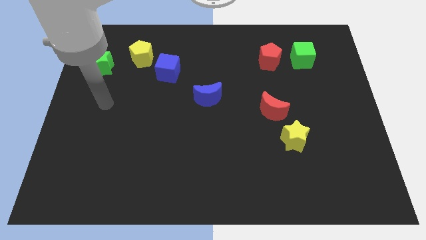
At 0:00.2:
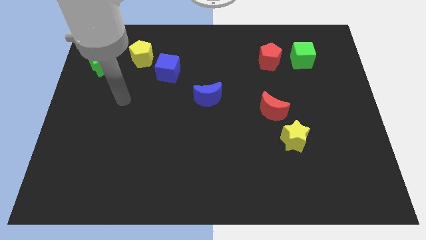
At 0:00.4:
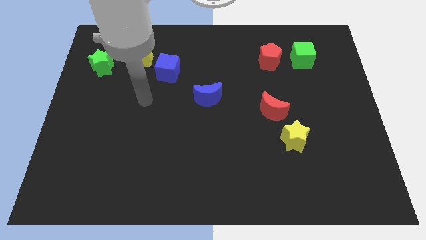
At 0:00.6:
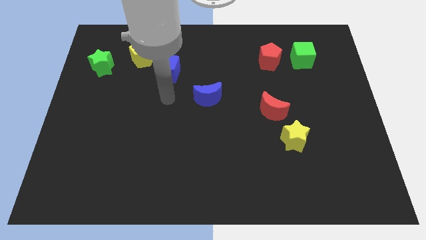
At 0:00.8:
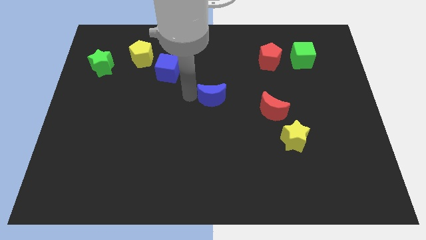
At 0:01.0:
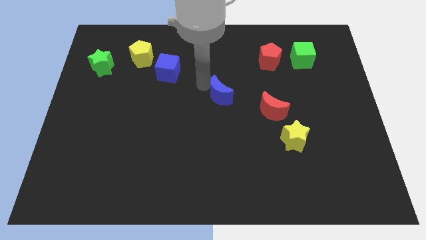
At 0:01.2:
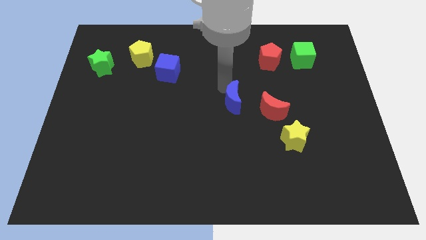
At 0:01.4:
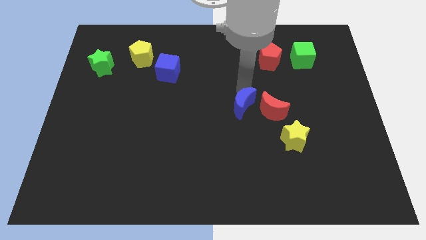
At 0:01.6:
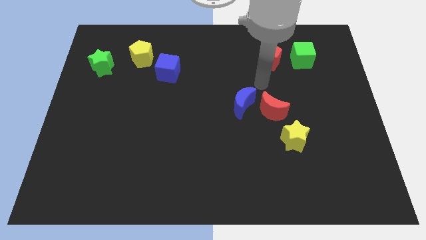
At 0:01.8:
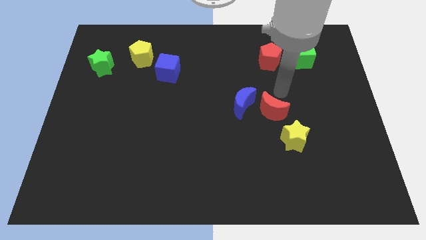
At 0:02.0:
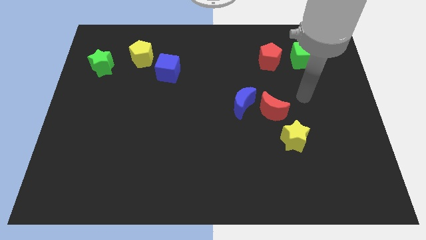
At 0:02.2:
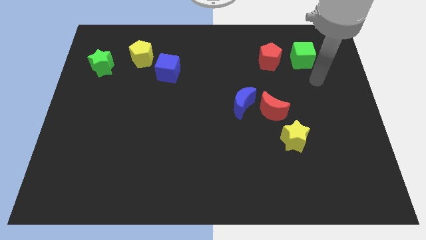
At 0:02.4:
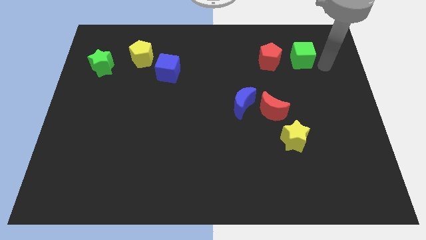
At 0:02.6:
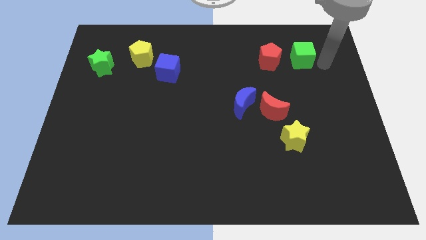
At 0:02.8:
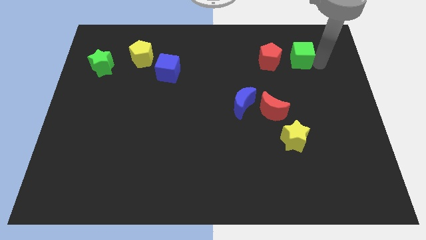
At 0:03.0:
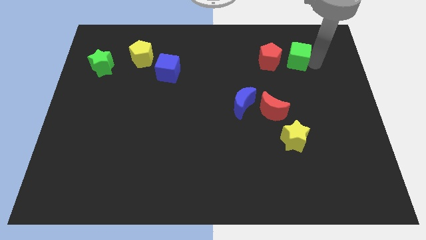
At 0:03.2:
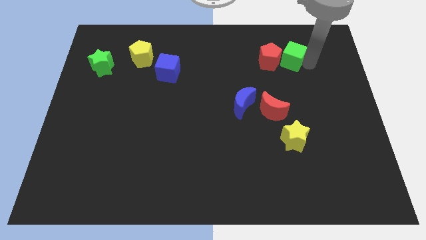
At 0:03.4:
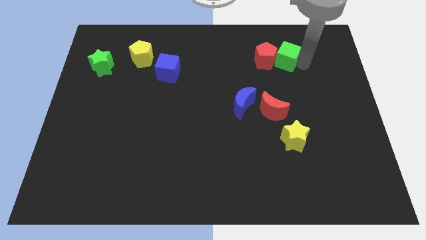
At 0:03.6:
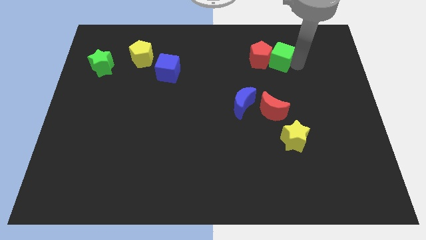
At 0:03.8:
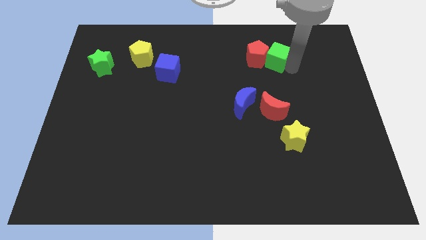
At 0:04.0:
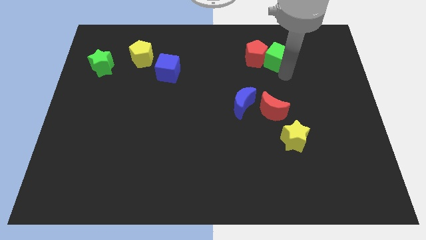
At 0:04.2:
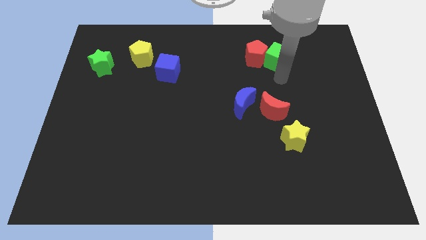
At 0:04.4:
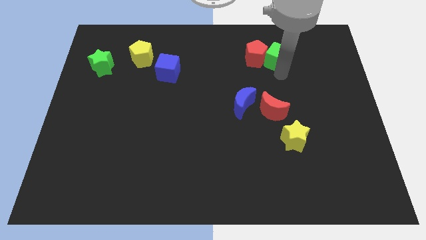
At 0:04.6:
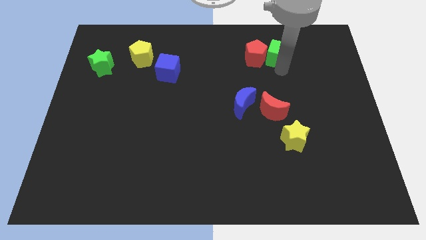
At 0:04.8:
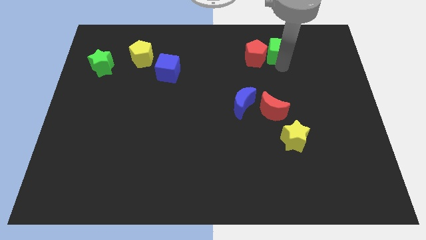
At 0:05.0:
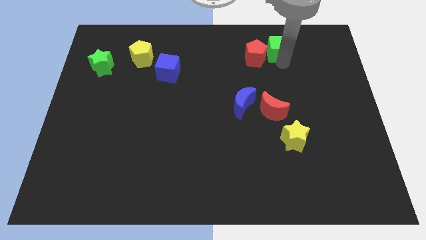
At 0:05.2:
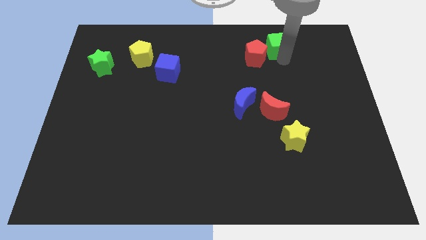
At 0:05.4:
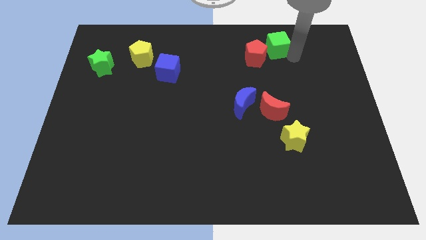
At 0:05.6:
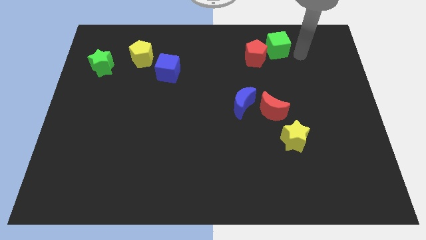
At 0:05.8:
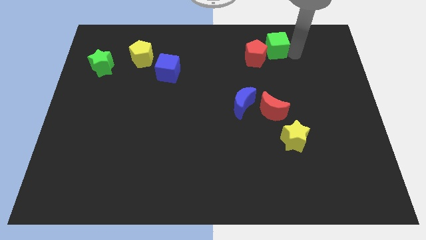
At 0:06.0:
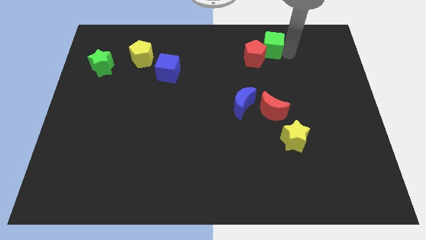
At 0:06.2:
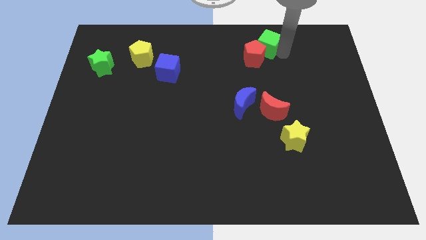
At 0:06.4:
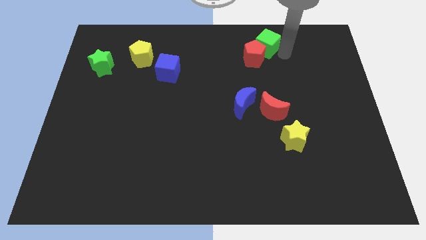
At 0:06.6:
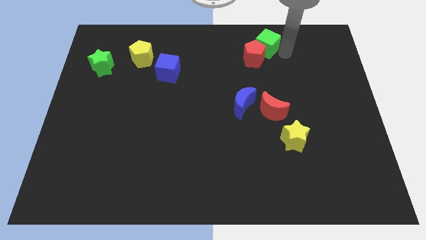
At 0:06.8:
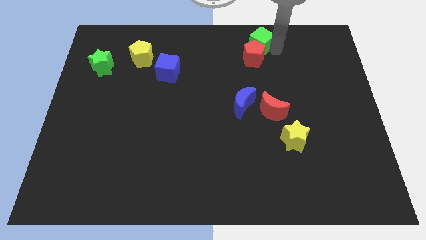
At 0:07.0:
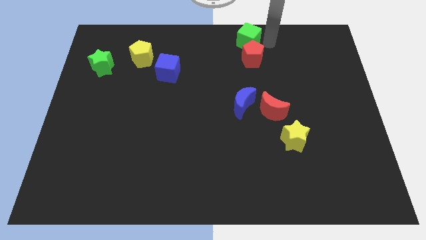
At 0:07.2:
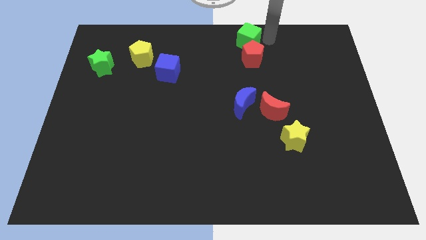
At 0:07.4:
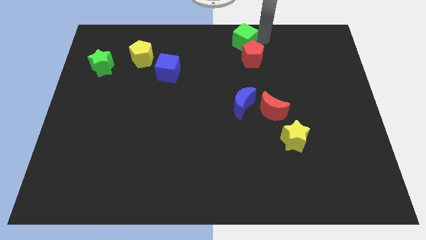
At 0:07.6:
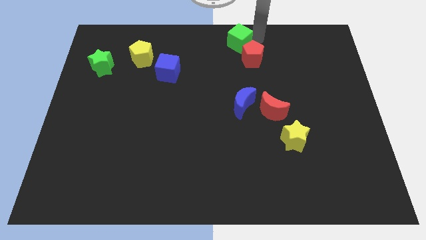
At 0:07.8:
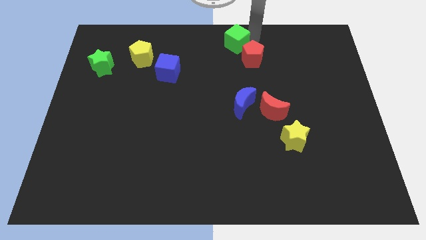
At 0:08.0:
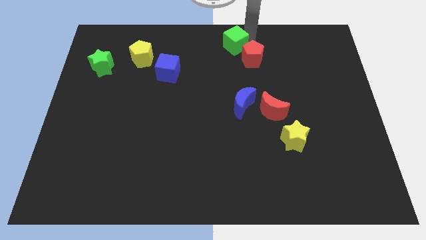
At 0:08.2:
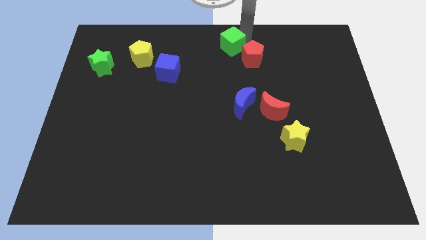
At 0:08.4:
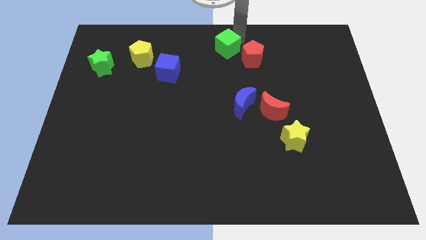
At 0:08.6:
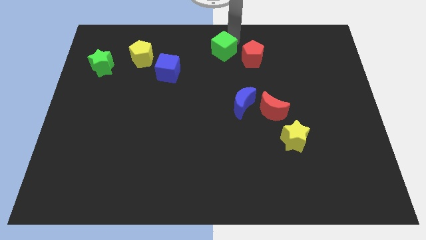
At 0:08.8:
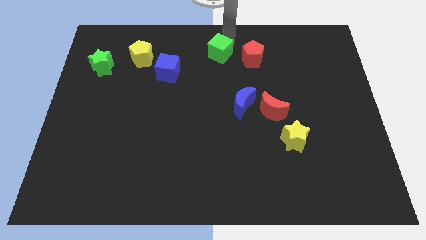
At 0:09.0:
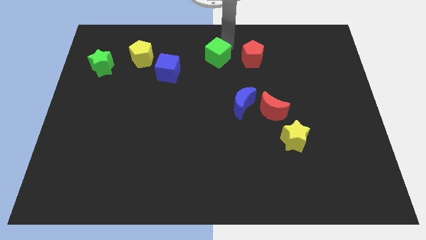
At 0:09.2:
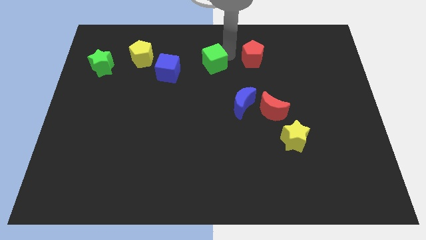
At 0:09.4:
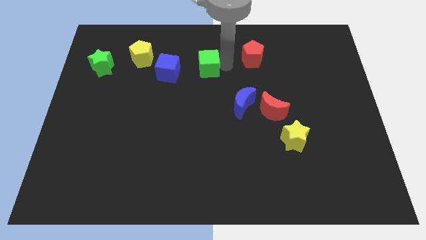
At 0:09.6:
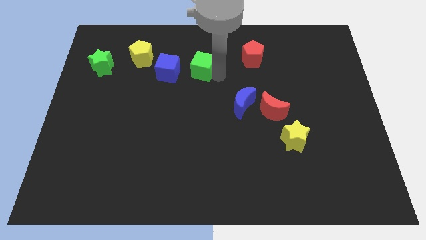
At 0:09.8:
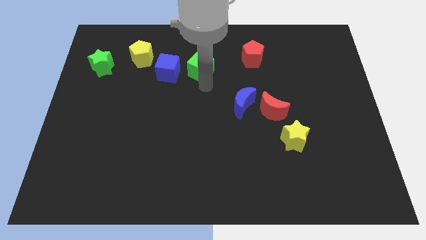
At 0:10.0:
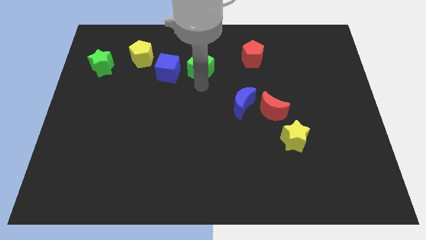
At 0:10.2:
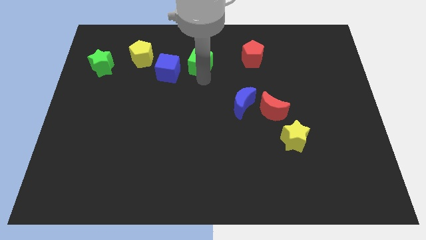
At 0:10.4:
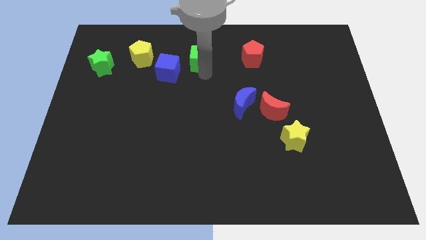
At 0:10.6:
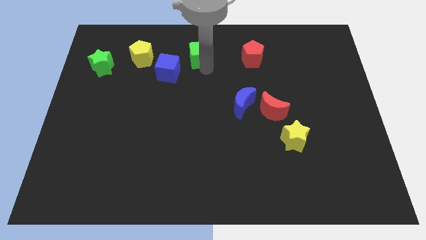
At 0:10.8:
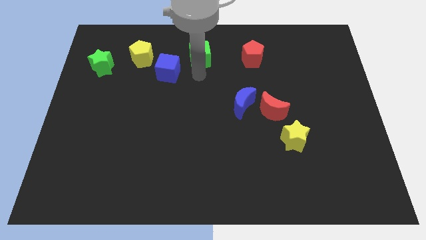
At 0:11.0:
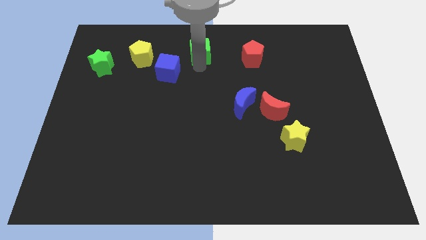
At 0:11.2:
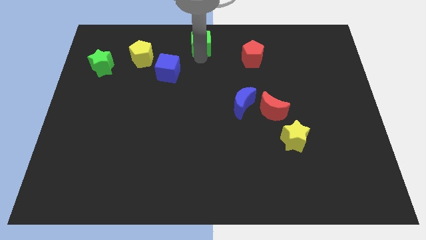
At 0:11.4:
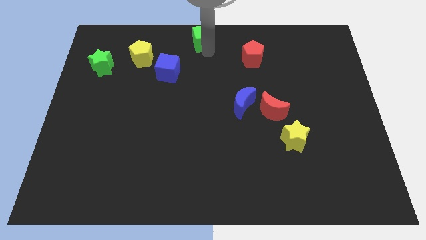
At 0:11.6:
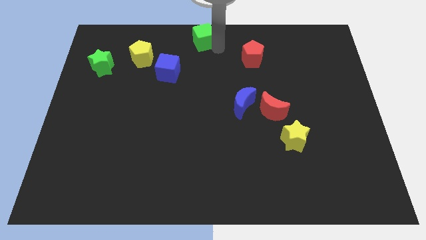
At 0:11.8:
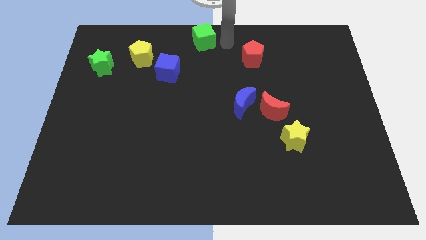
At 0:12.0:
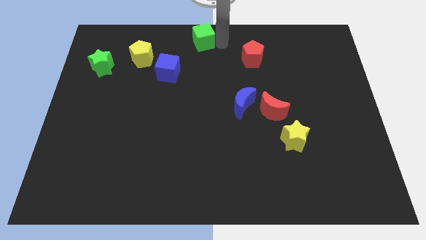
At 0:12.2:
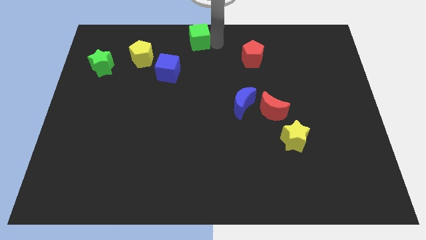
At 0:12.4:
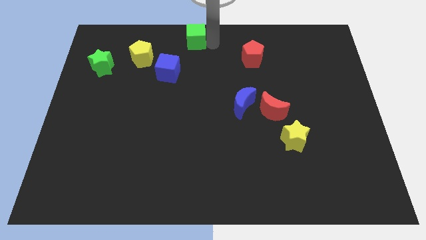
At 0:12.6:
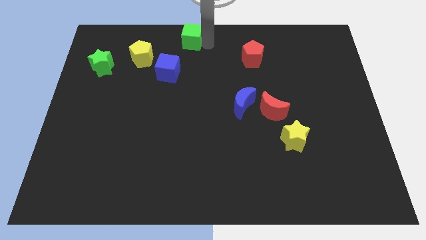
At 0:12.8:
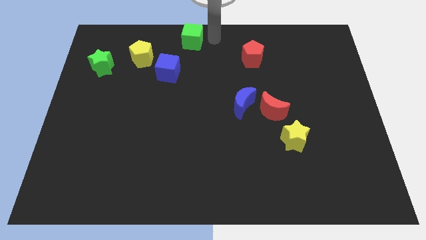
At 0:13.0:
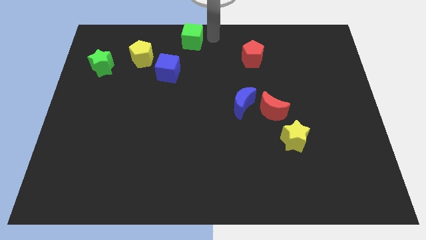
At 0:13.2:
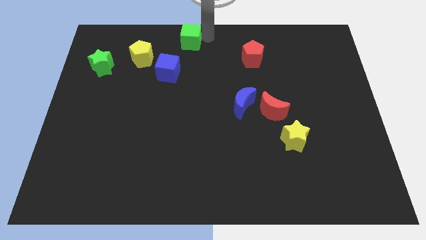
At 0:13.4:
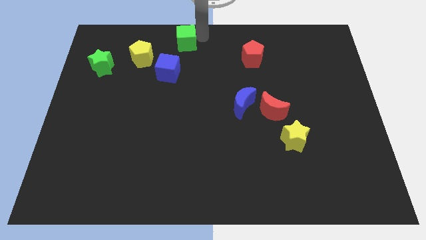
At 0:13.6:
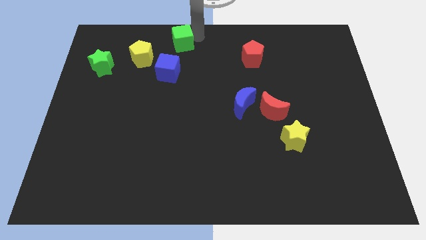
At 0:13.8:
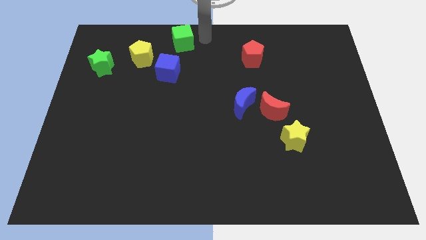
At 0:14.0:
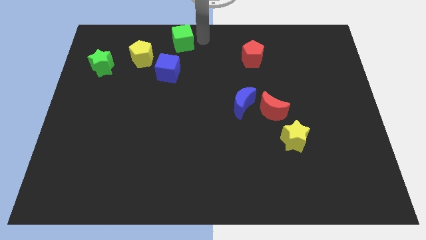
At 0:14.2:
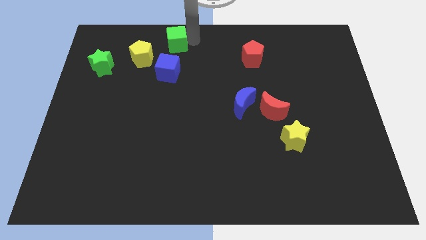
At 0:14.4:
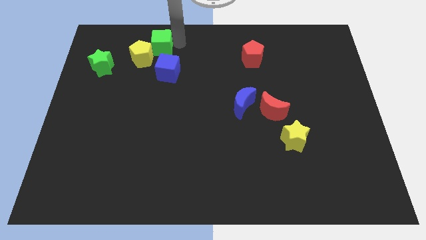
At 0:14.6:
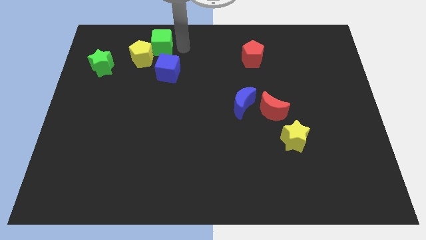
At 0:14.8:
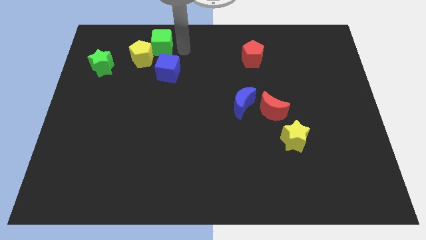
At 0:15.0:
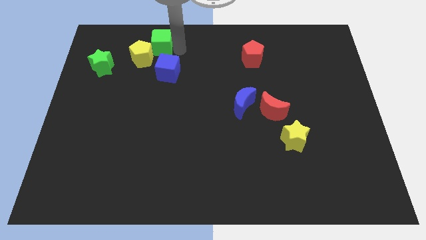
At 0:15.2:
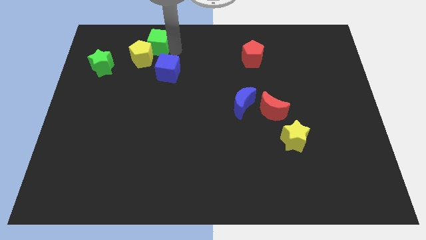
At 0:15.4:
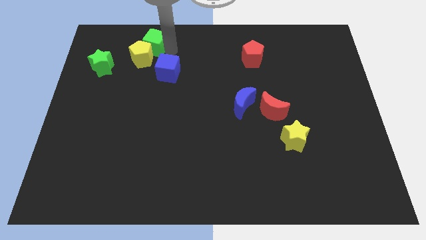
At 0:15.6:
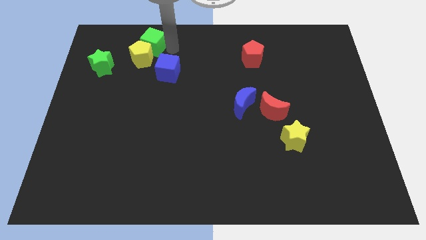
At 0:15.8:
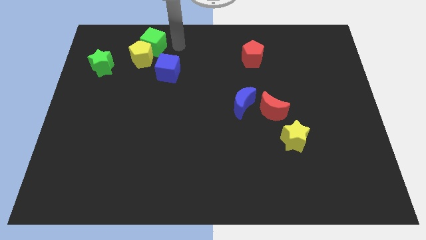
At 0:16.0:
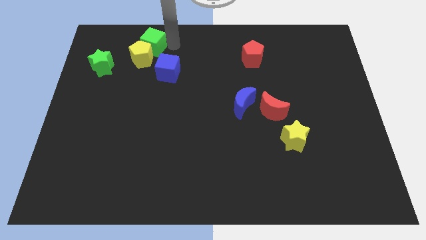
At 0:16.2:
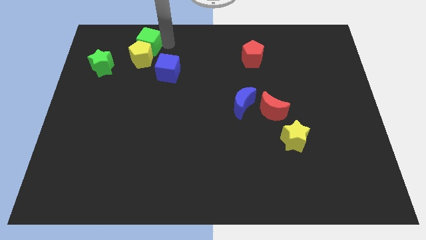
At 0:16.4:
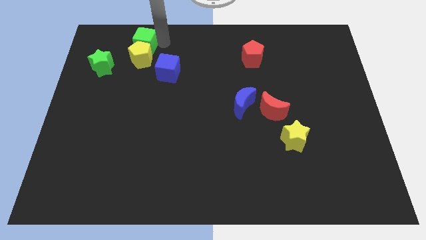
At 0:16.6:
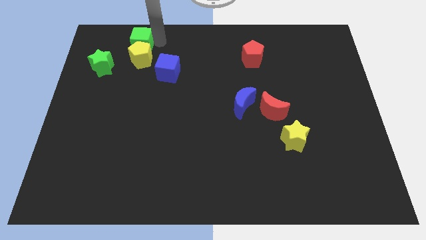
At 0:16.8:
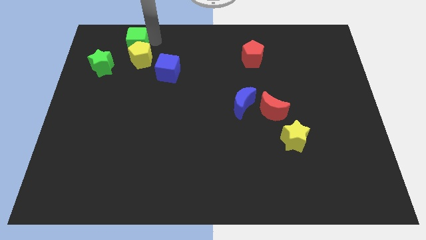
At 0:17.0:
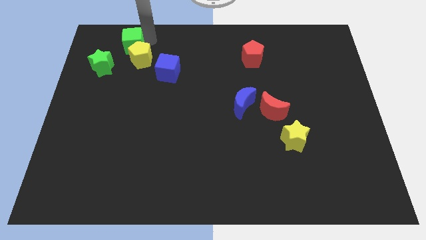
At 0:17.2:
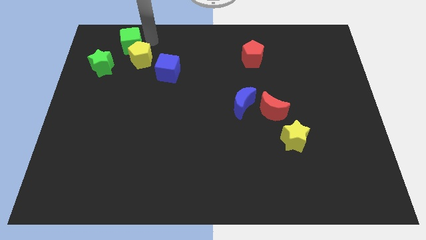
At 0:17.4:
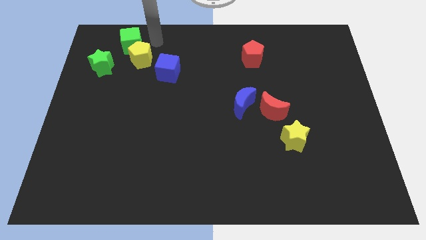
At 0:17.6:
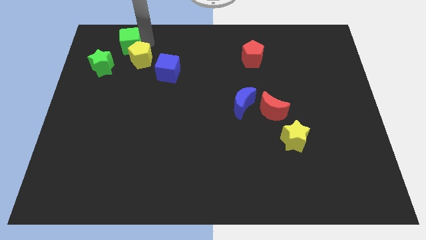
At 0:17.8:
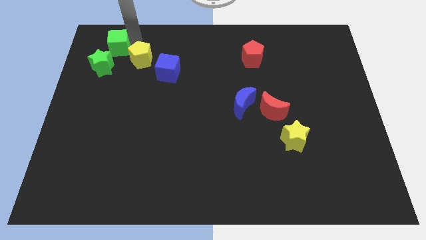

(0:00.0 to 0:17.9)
move the green cube to the left of the yellow pentagon
